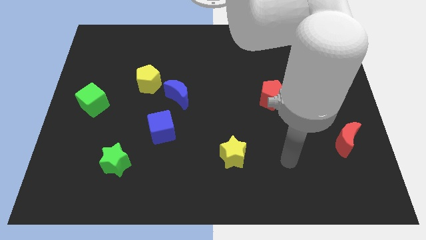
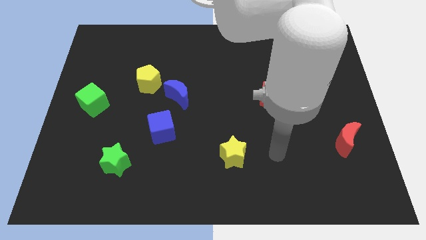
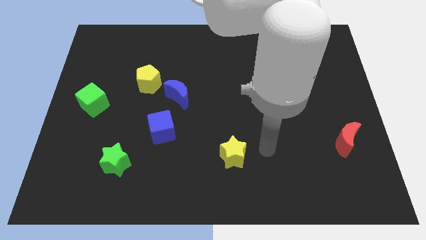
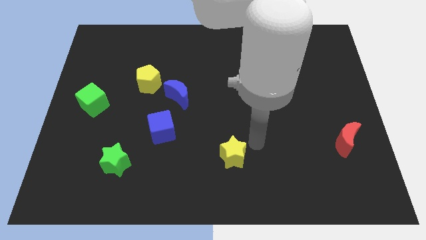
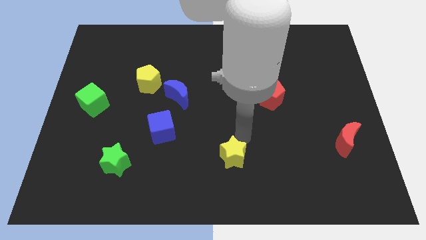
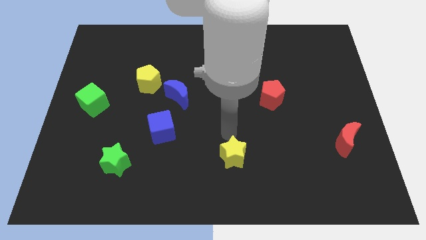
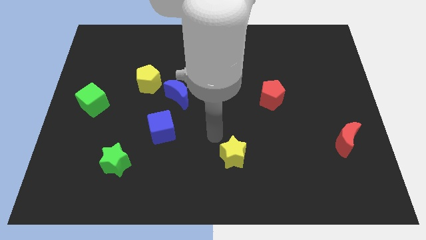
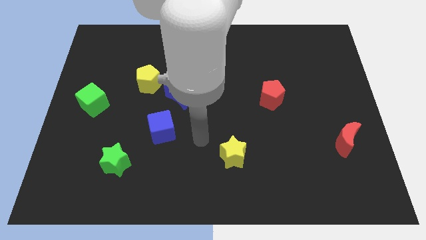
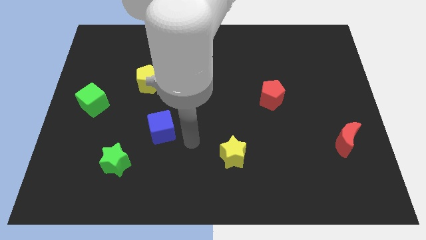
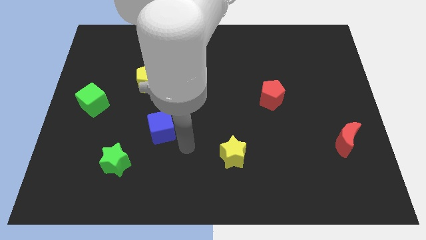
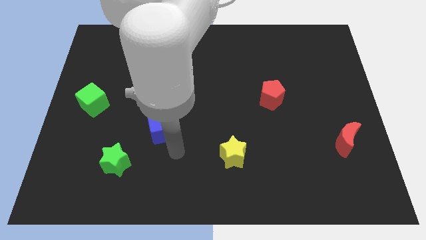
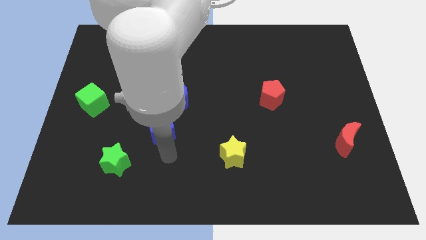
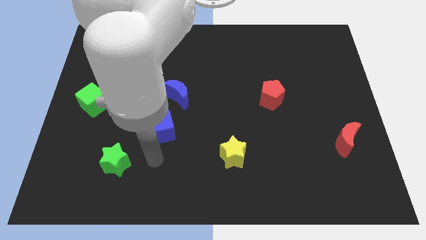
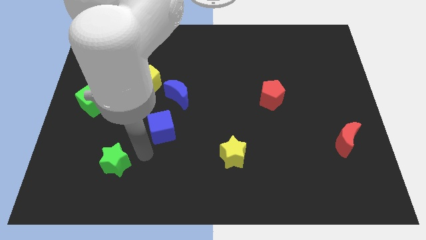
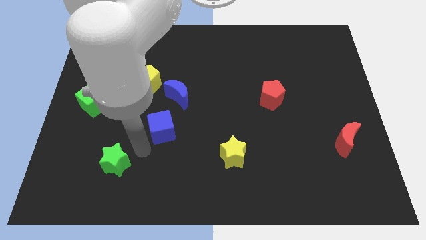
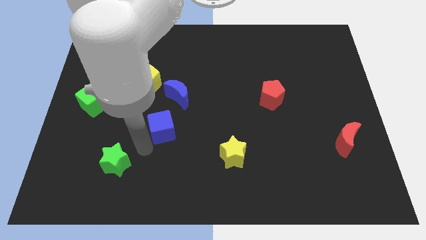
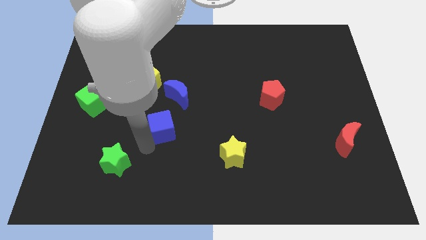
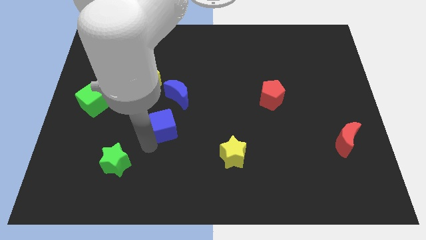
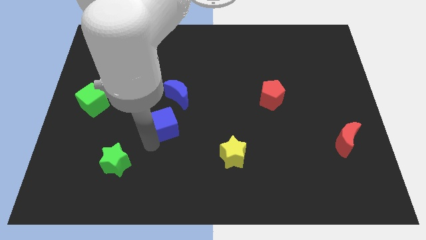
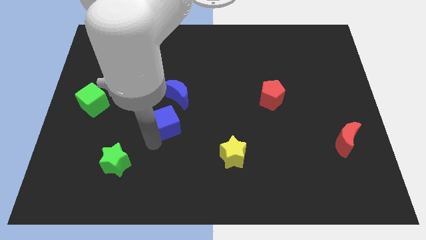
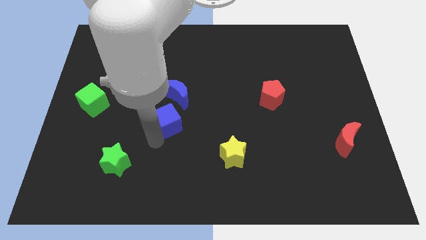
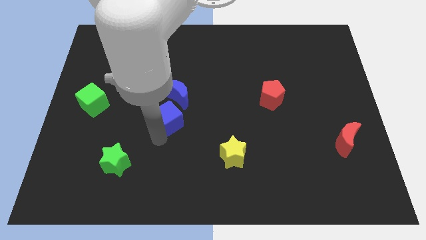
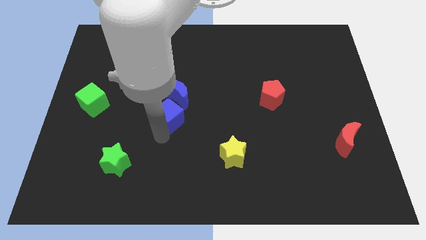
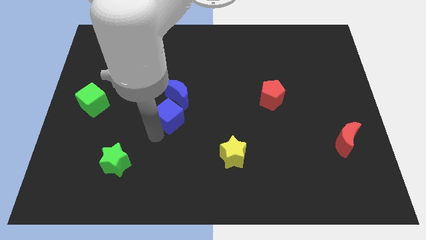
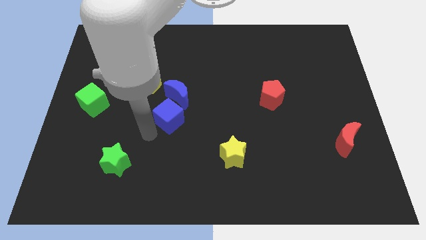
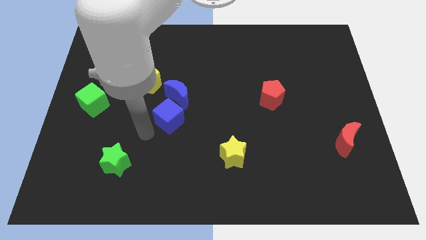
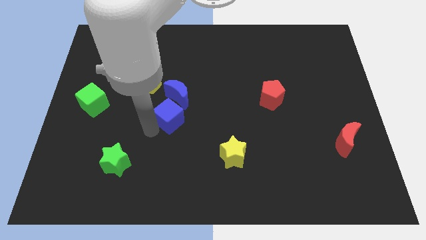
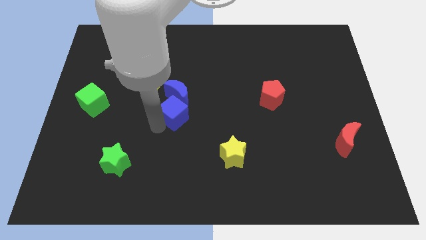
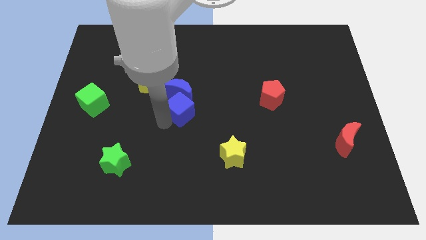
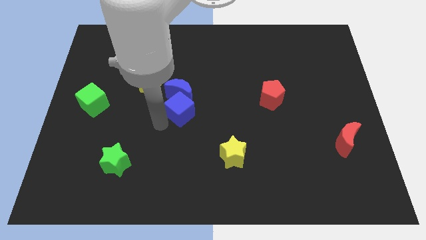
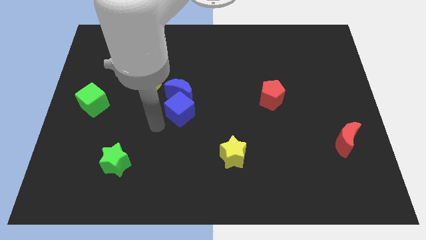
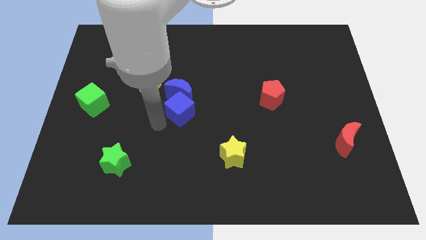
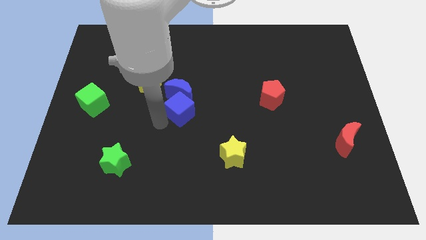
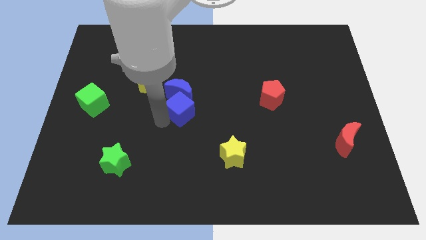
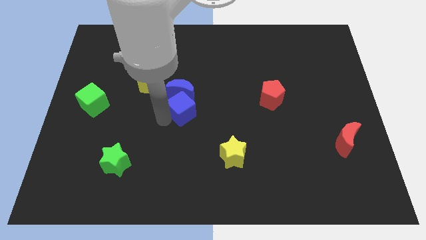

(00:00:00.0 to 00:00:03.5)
slightly slide the blue cube upwards and right diagonally

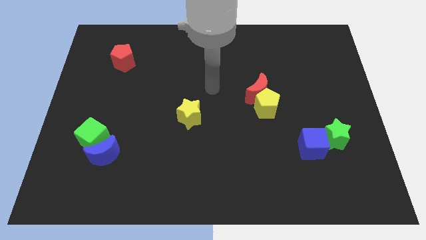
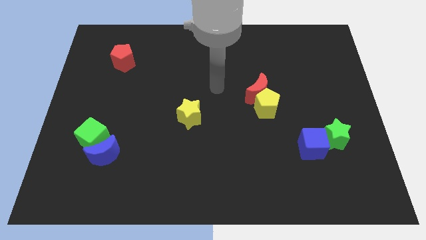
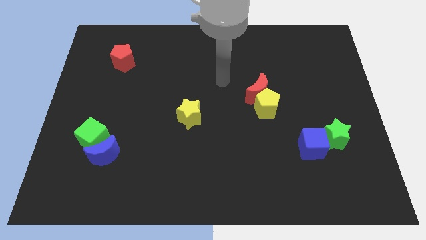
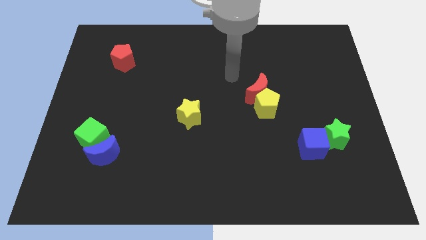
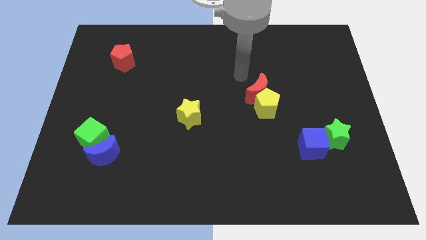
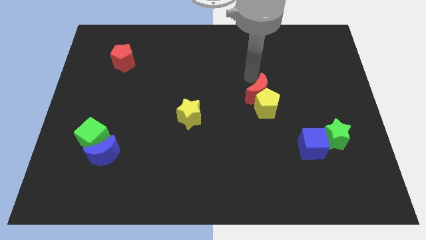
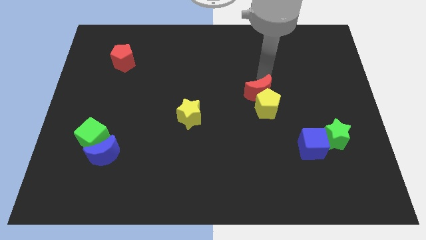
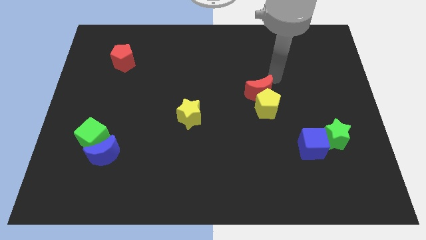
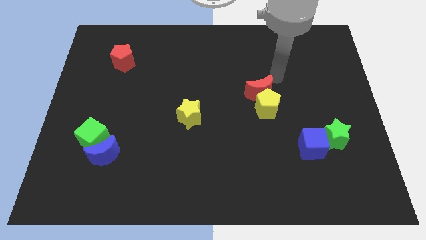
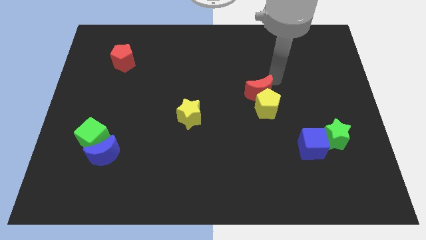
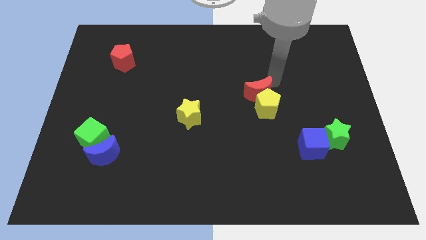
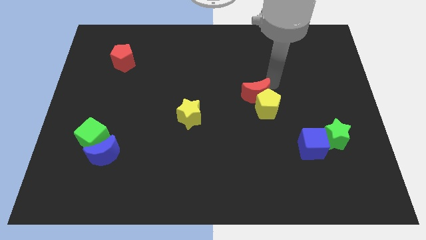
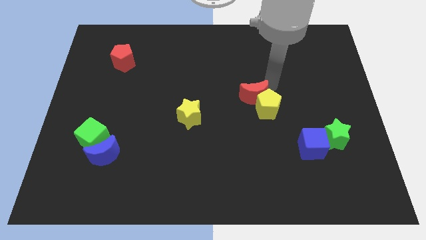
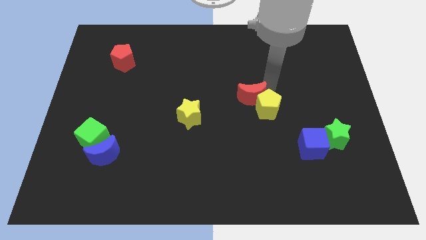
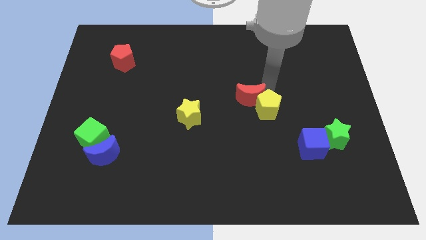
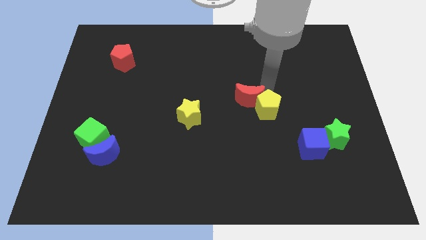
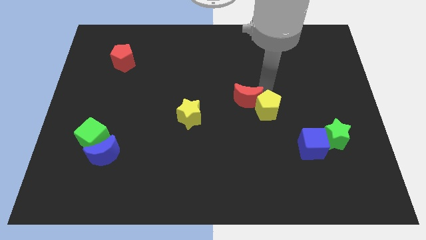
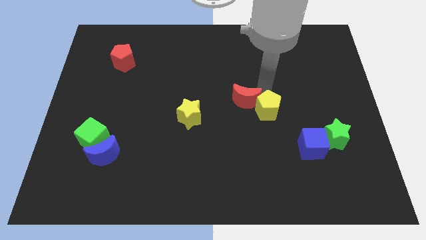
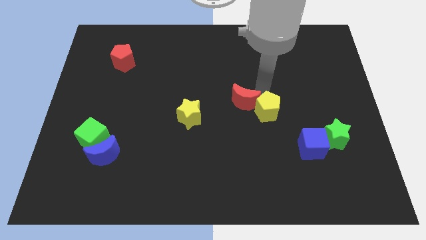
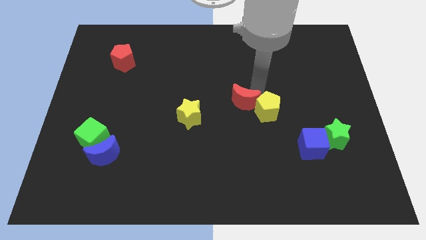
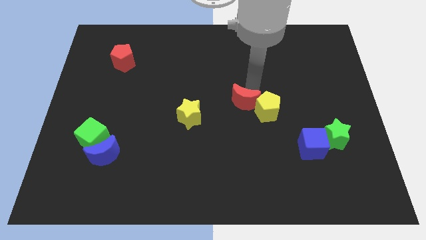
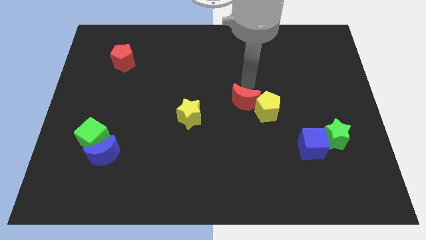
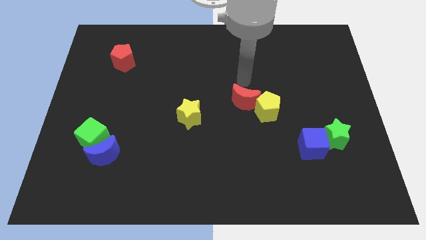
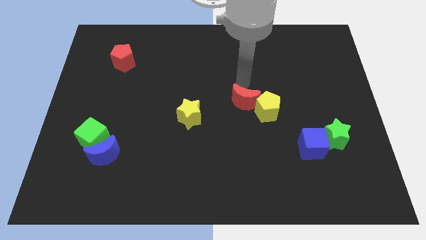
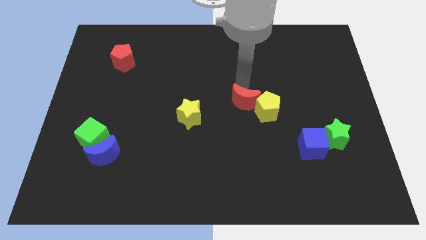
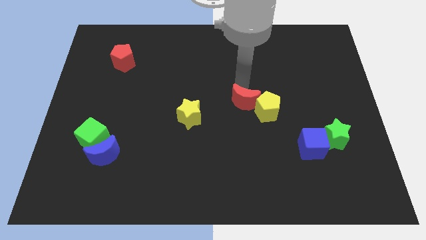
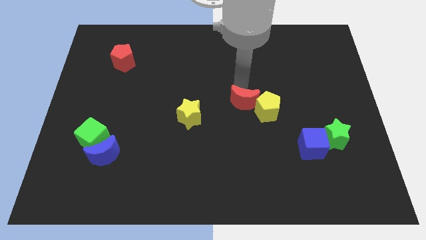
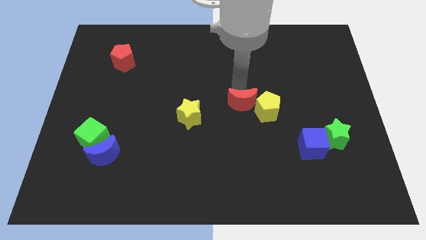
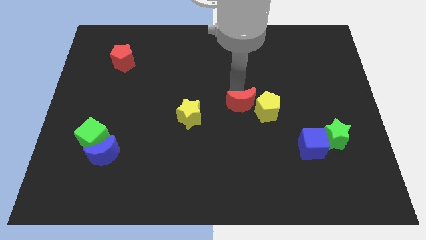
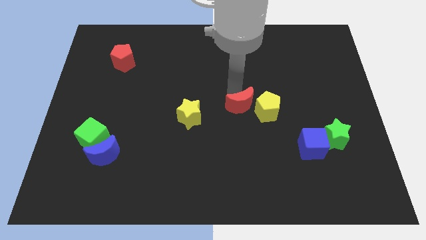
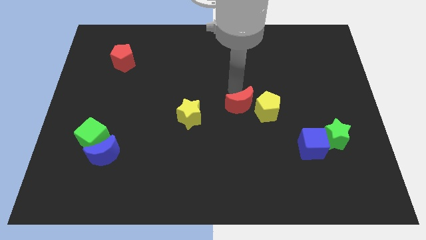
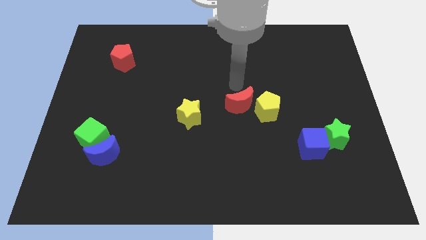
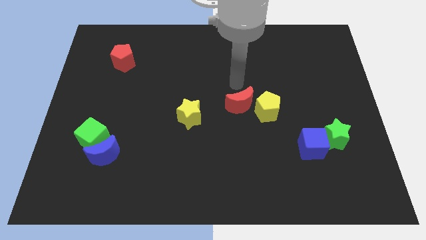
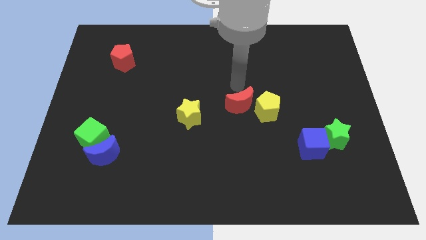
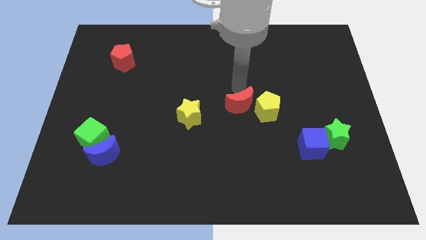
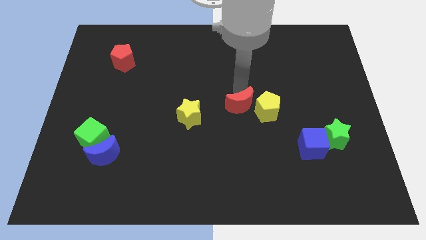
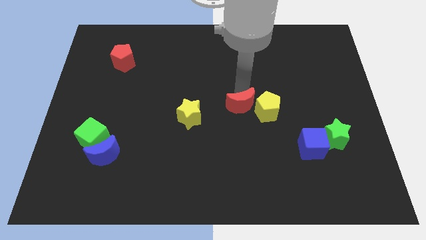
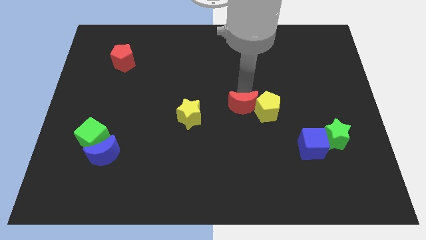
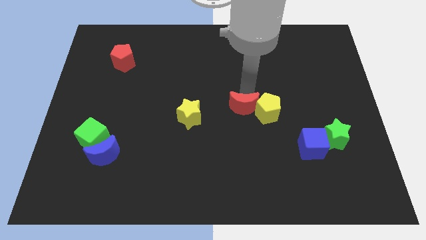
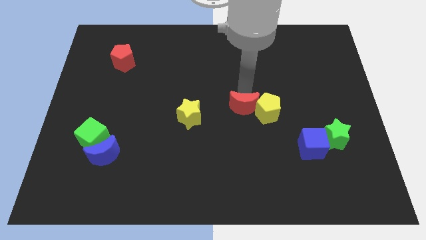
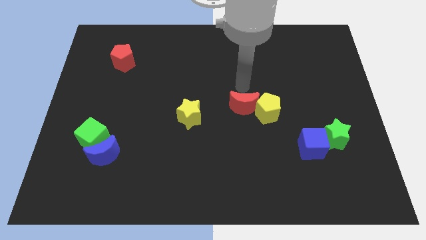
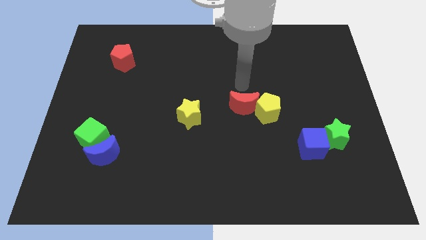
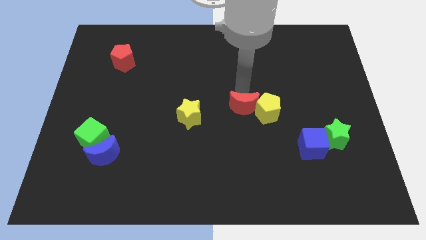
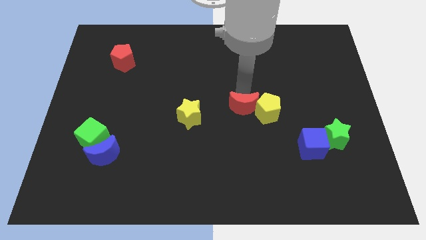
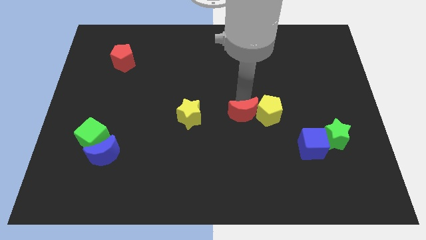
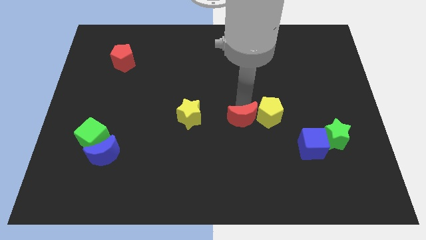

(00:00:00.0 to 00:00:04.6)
move the red moon a bit downwards
